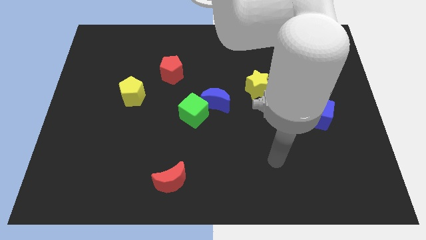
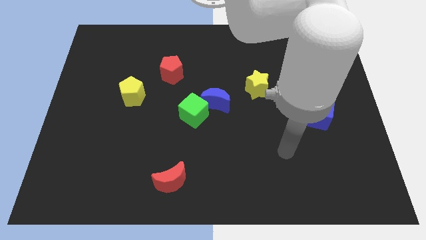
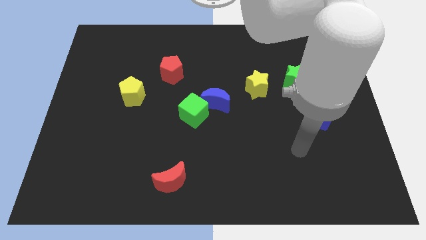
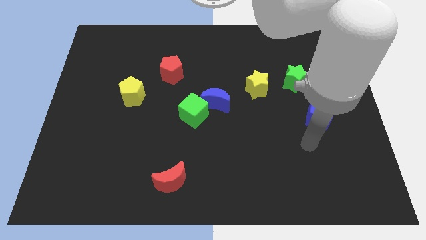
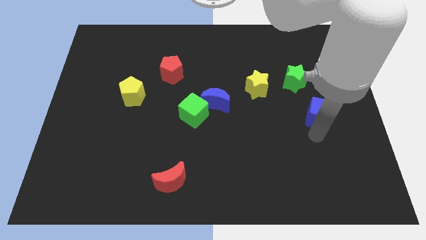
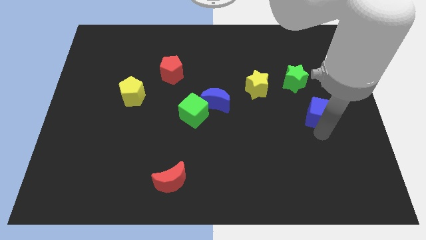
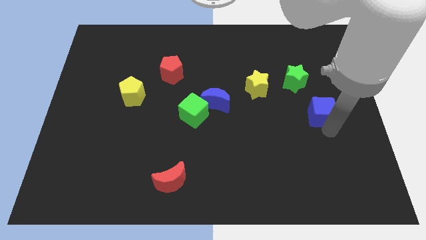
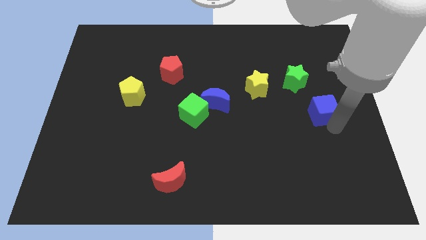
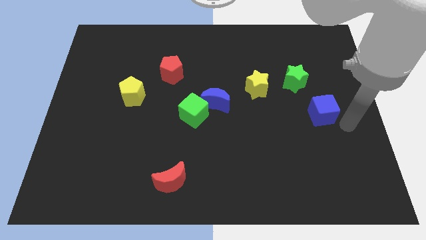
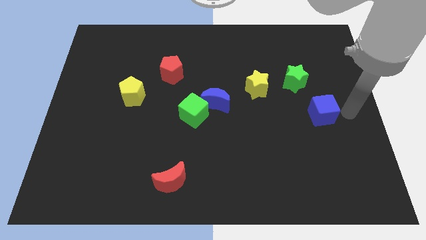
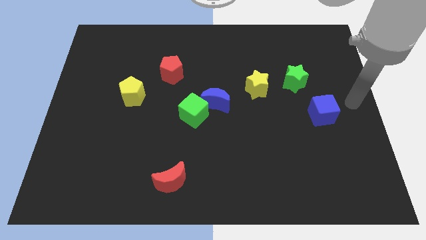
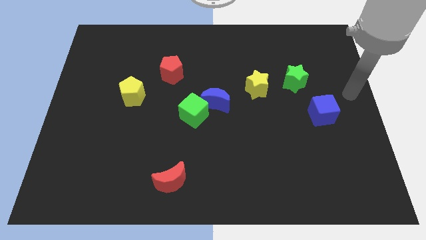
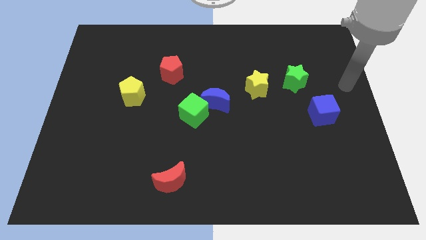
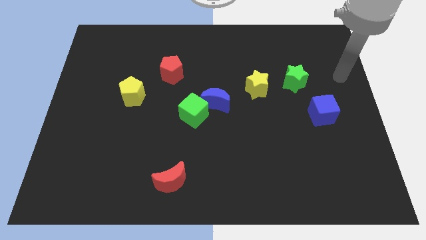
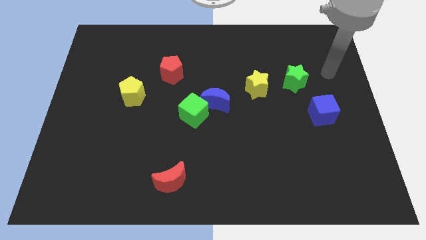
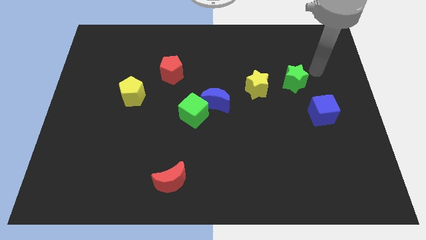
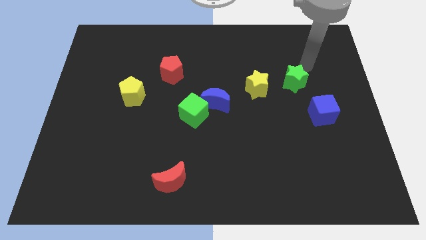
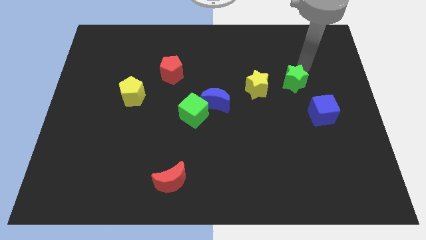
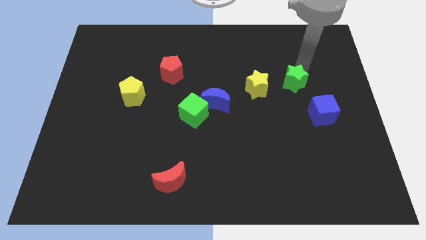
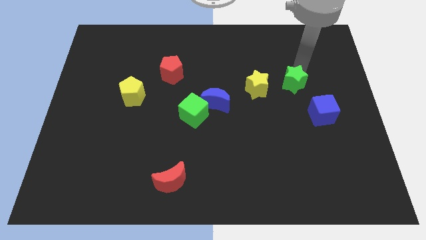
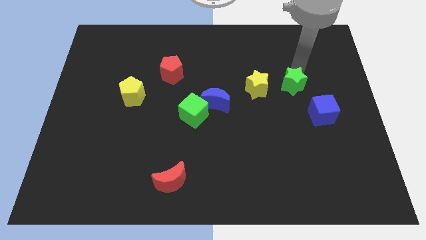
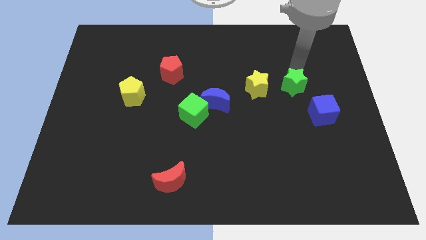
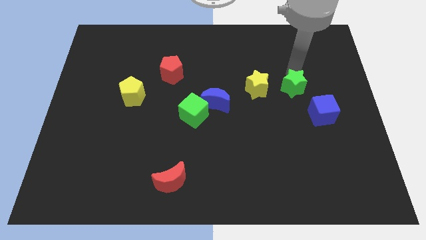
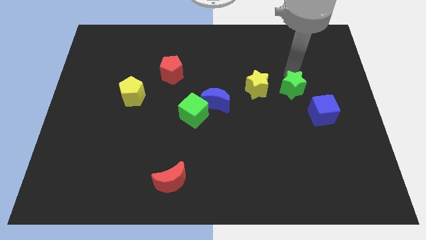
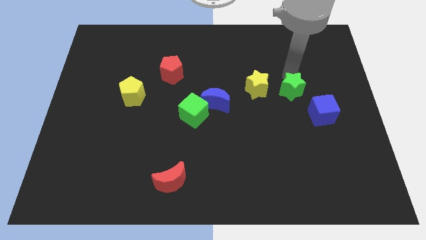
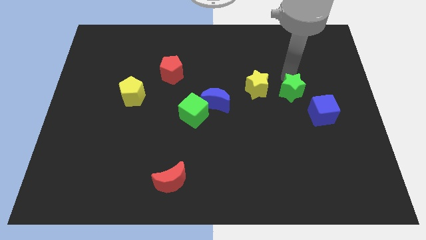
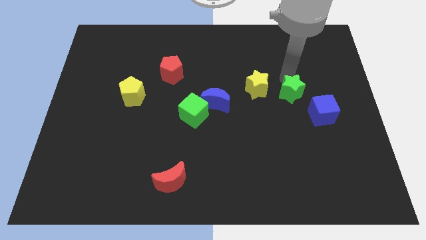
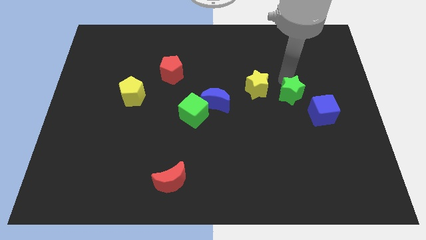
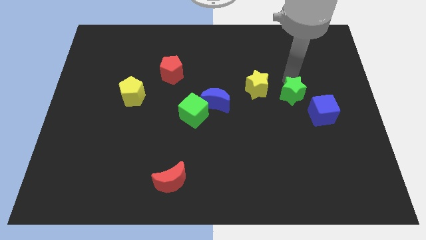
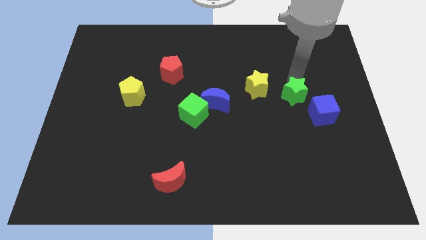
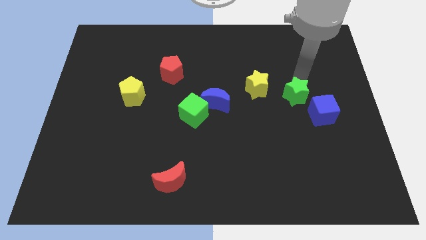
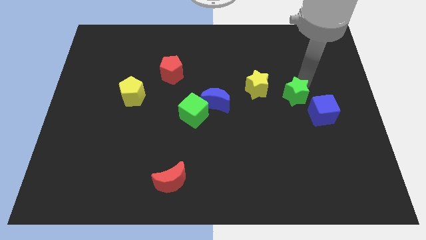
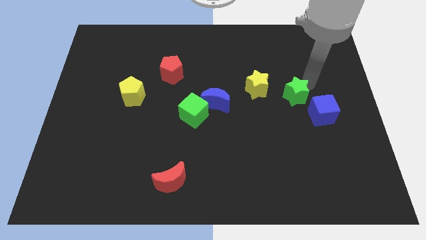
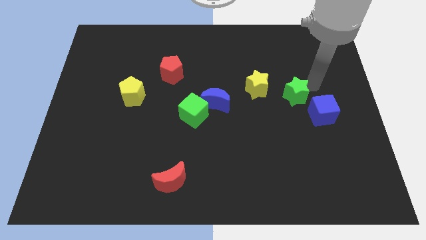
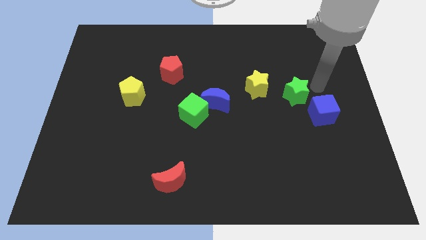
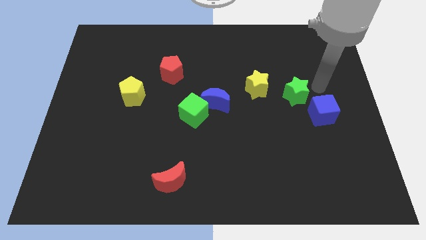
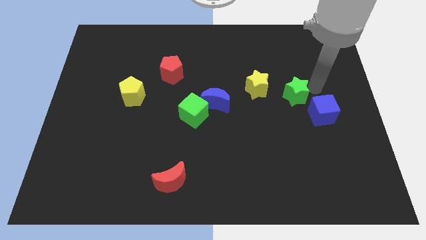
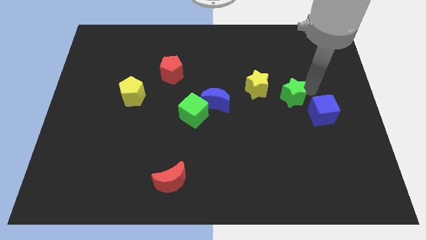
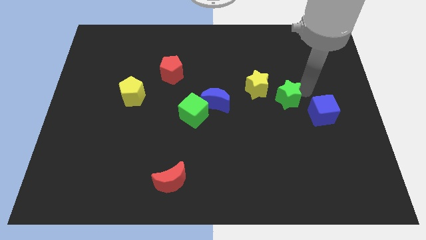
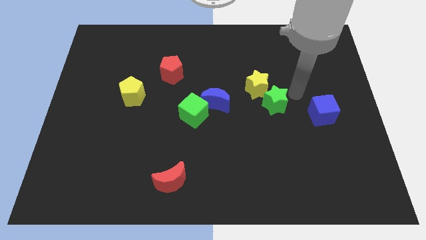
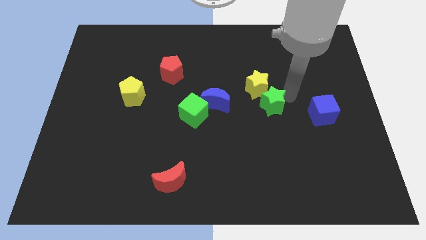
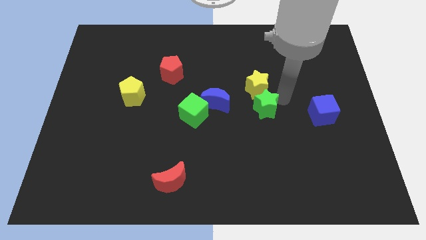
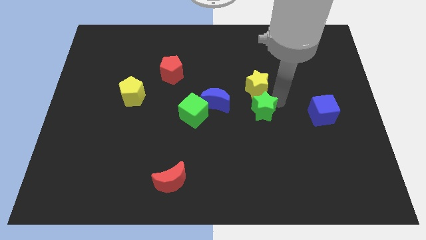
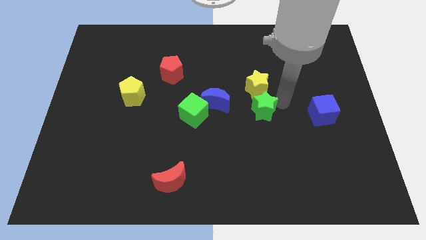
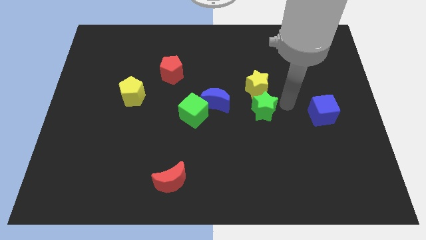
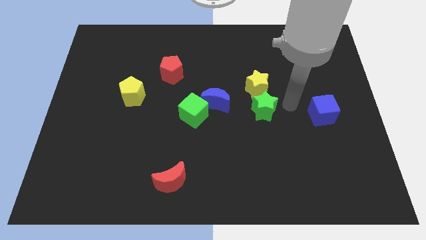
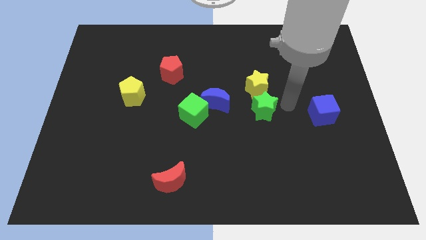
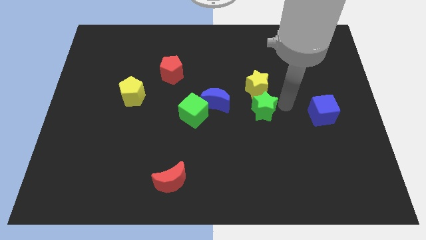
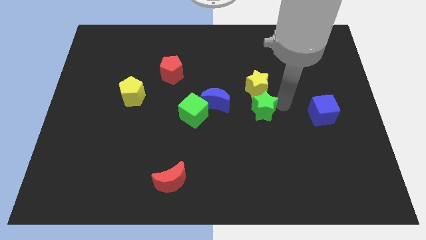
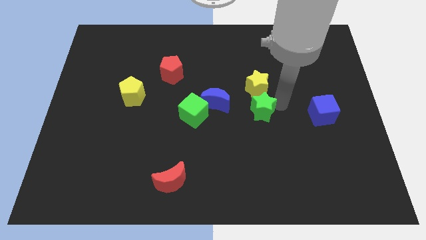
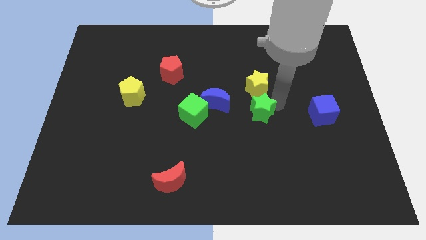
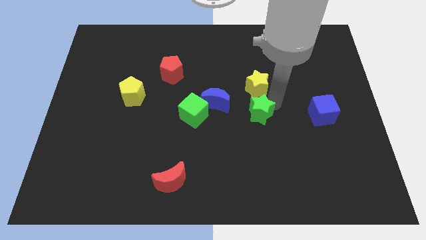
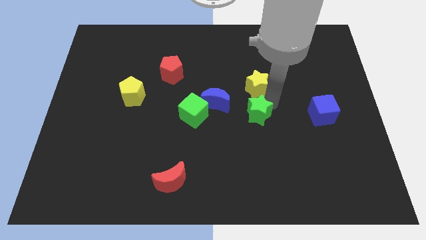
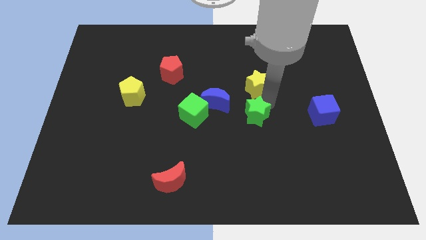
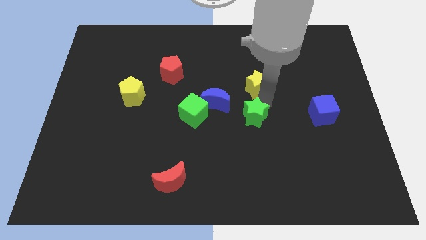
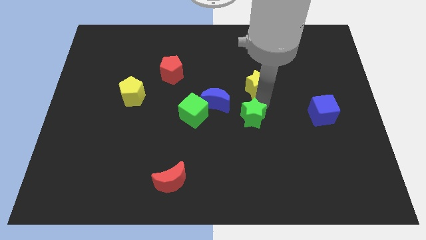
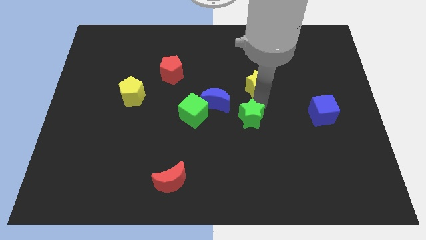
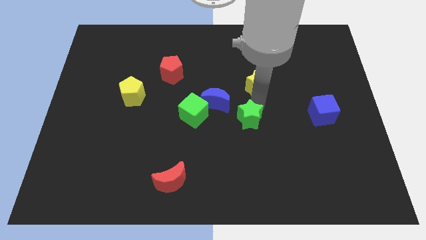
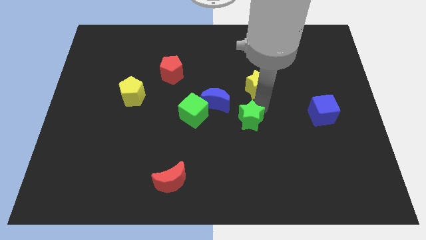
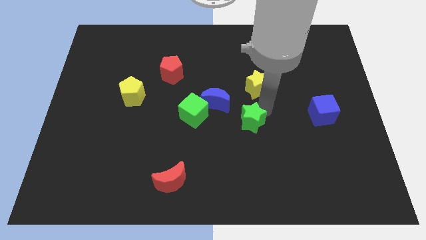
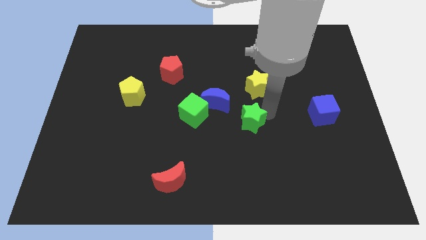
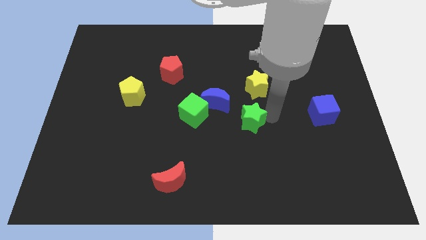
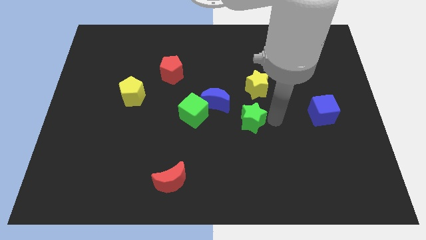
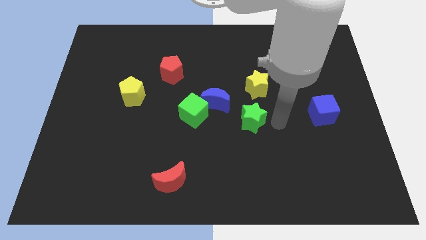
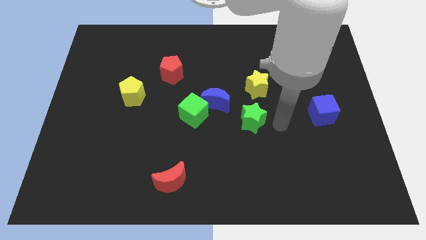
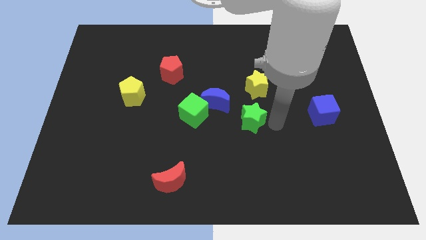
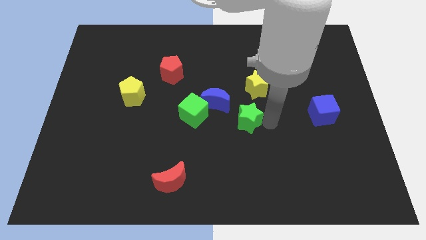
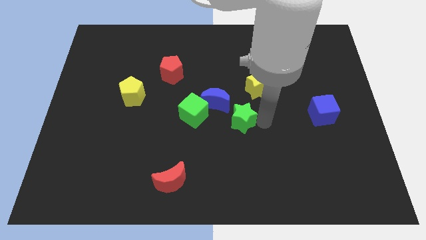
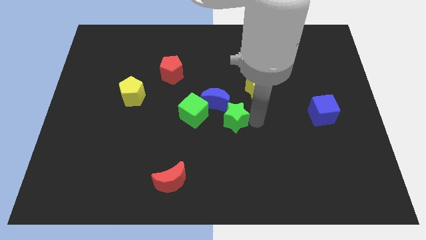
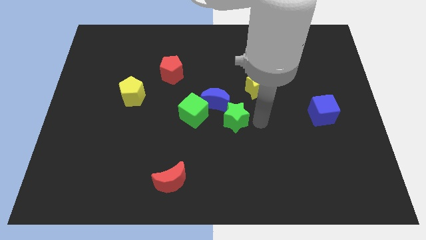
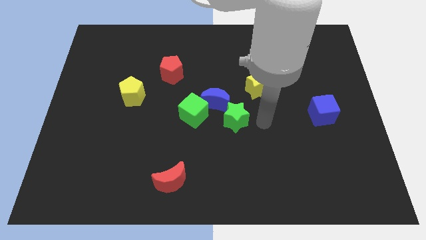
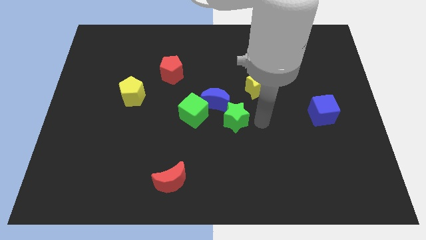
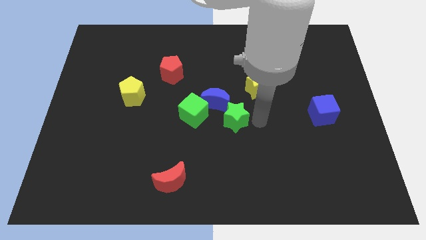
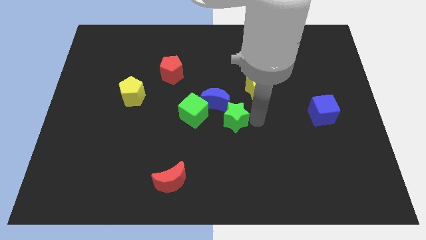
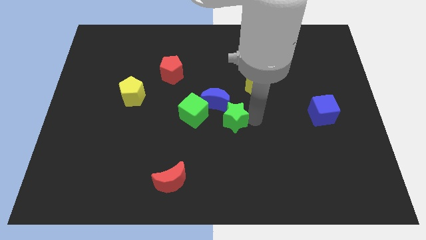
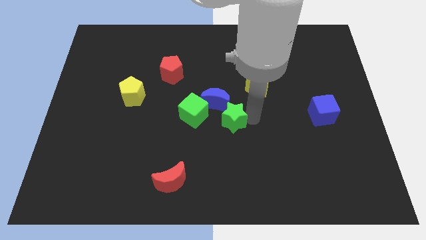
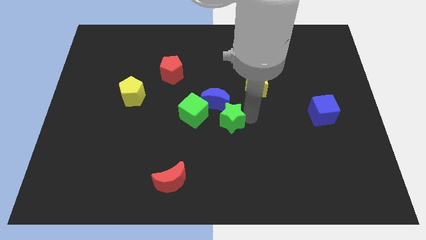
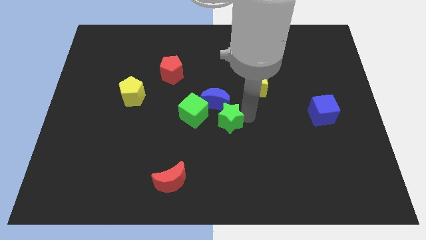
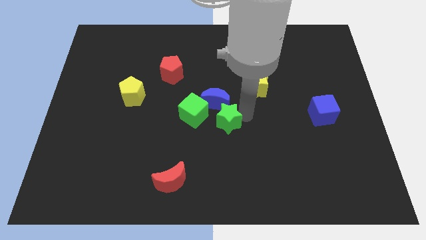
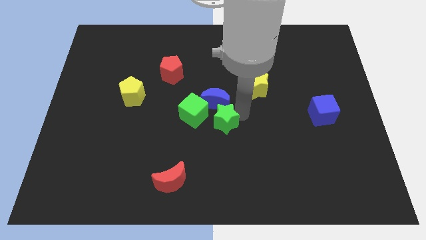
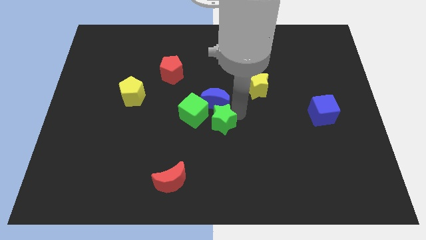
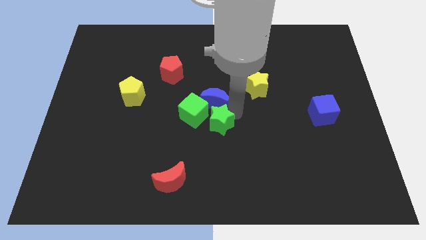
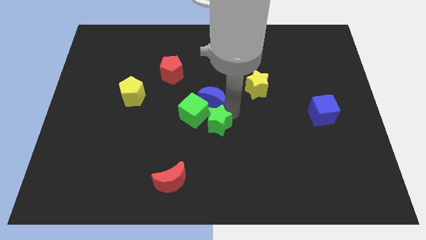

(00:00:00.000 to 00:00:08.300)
push the green star next to the green cube
